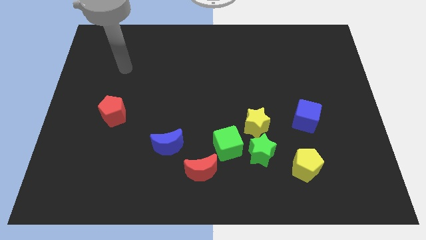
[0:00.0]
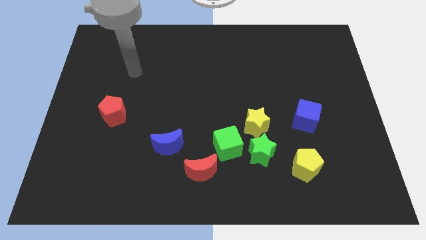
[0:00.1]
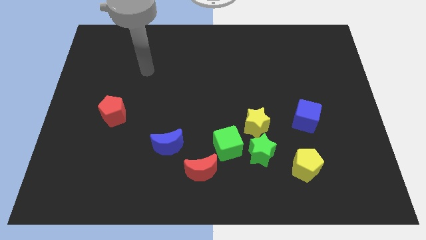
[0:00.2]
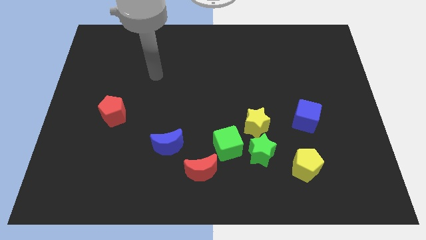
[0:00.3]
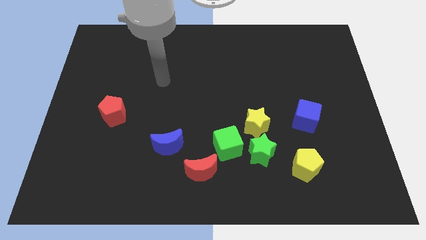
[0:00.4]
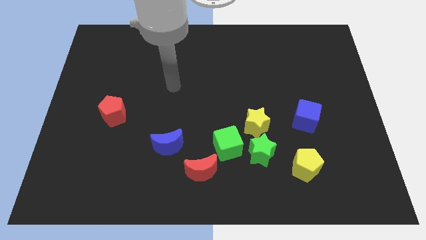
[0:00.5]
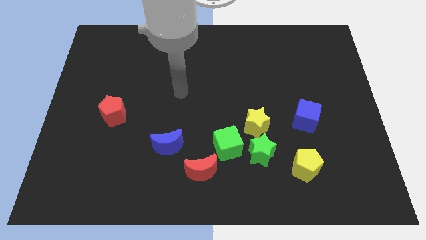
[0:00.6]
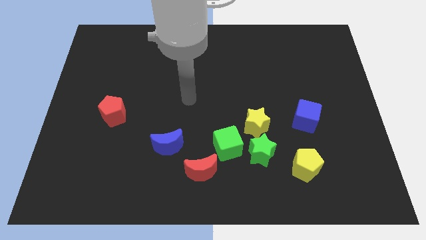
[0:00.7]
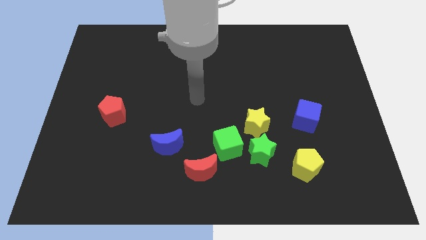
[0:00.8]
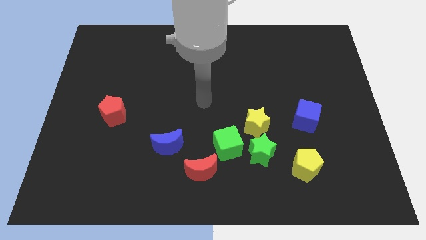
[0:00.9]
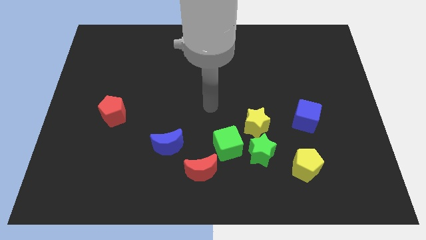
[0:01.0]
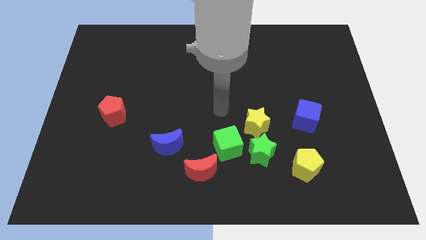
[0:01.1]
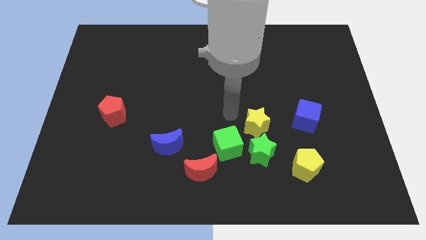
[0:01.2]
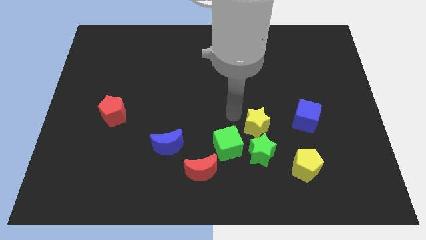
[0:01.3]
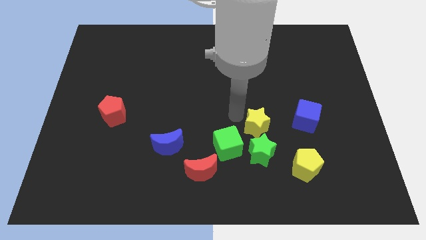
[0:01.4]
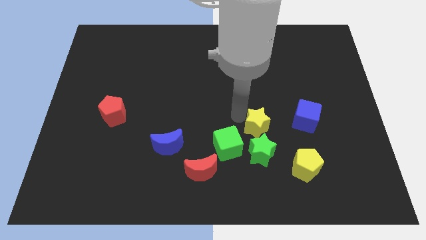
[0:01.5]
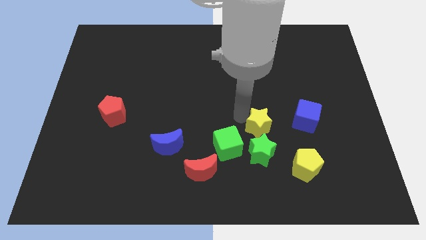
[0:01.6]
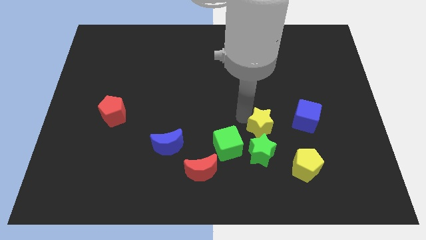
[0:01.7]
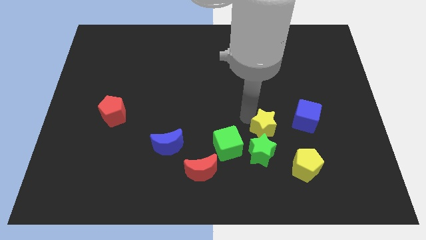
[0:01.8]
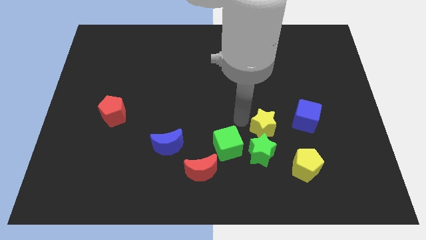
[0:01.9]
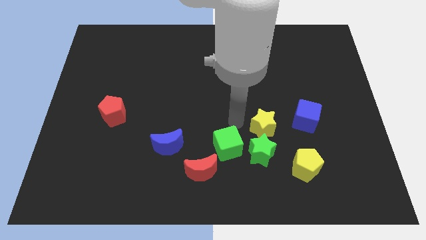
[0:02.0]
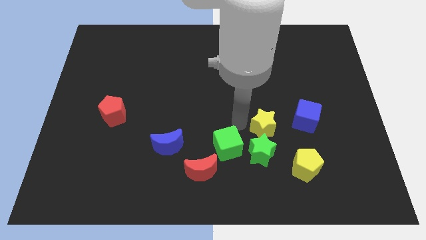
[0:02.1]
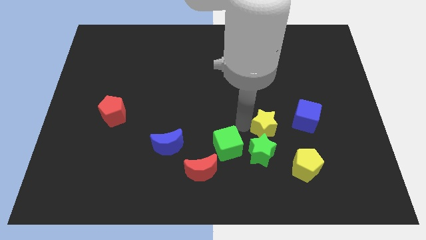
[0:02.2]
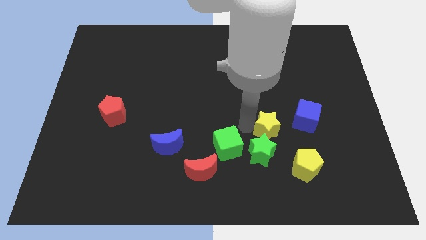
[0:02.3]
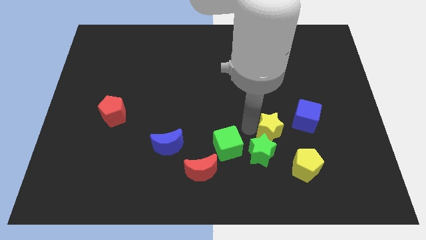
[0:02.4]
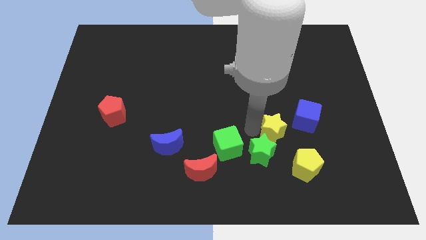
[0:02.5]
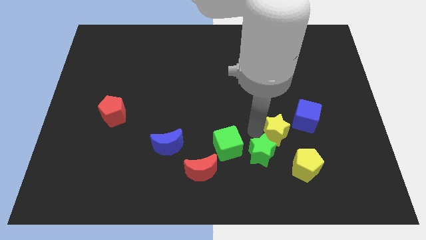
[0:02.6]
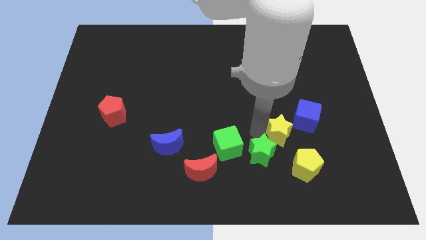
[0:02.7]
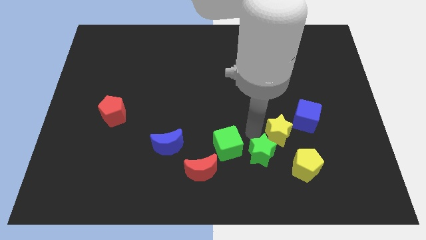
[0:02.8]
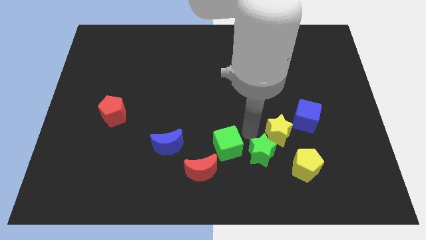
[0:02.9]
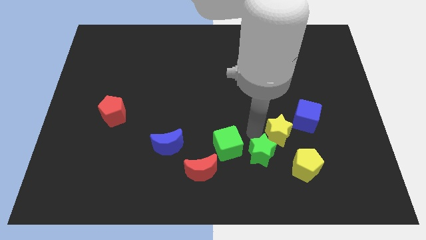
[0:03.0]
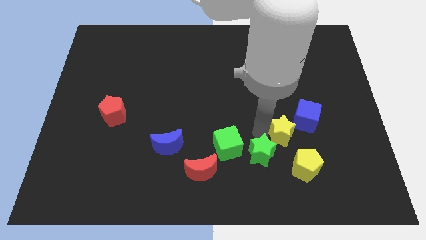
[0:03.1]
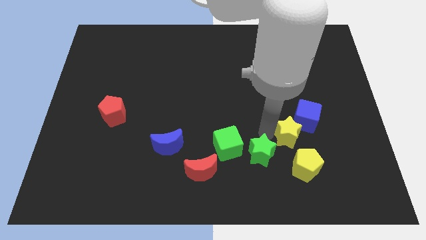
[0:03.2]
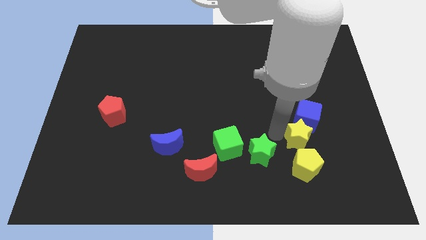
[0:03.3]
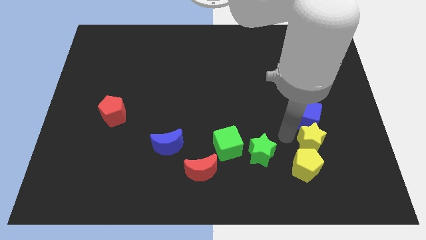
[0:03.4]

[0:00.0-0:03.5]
move the yellow star diagonally down and to the right of the blue cube

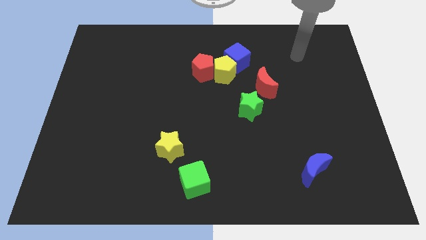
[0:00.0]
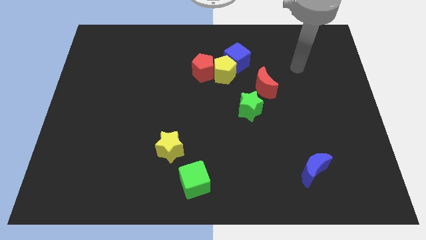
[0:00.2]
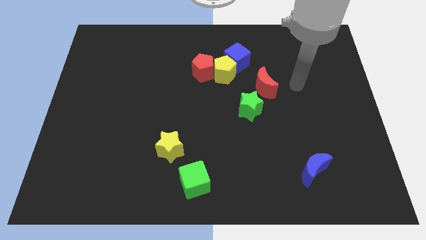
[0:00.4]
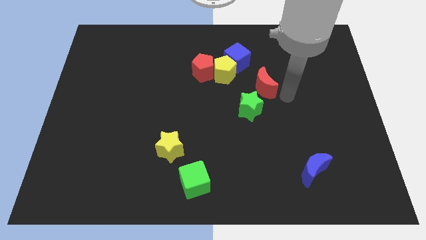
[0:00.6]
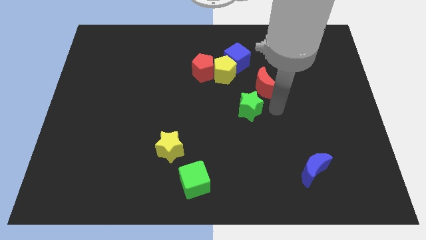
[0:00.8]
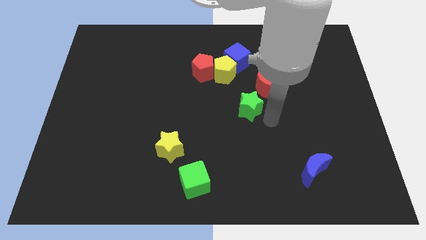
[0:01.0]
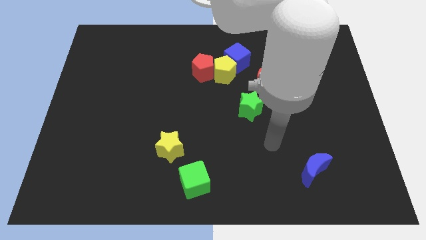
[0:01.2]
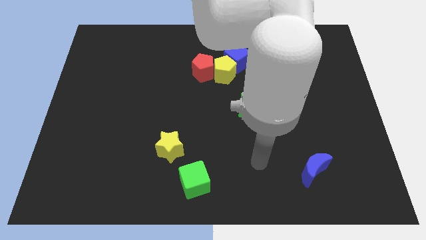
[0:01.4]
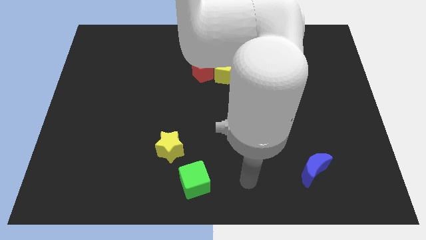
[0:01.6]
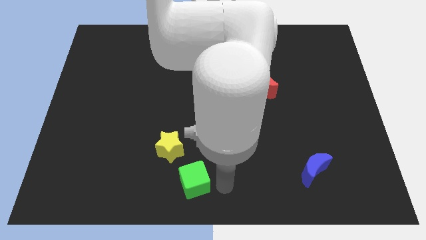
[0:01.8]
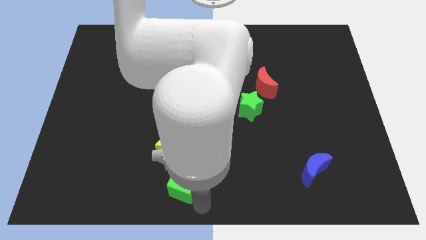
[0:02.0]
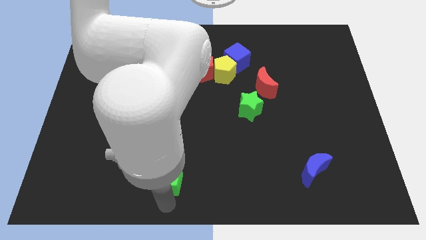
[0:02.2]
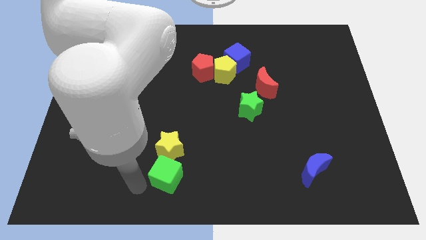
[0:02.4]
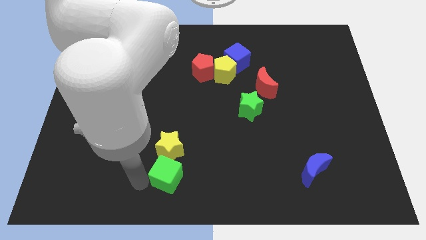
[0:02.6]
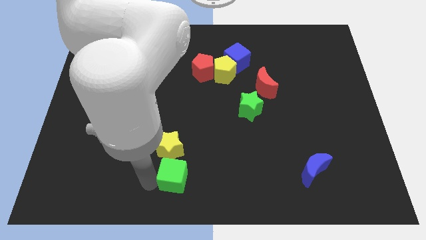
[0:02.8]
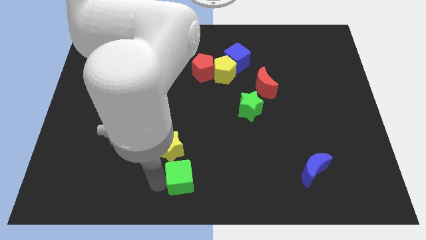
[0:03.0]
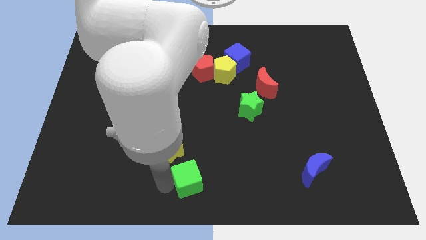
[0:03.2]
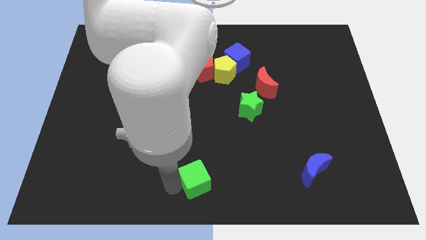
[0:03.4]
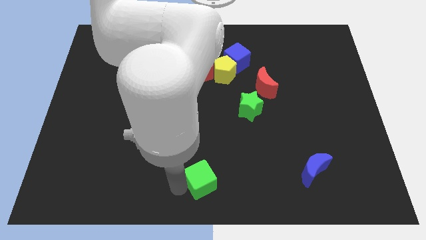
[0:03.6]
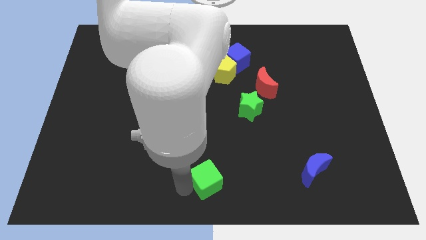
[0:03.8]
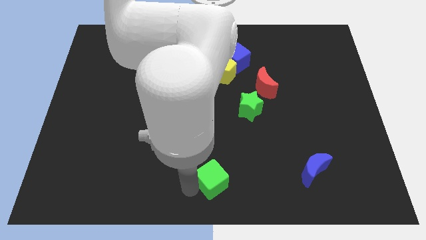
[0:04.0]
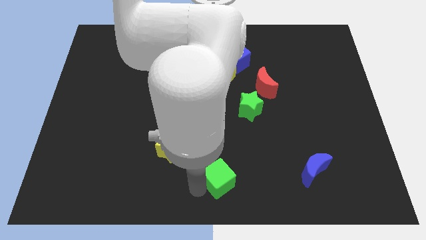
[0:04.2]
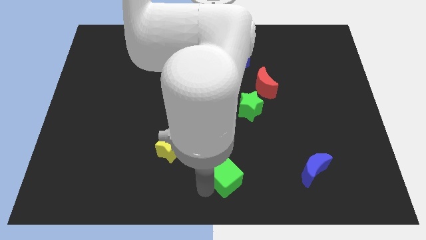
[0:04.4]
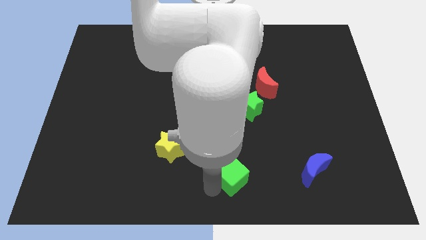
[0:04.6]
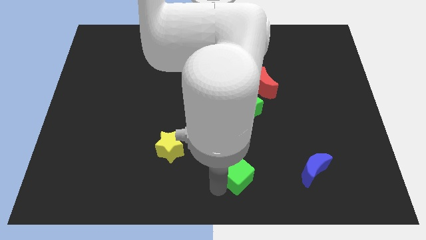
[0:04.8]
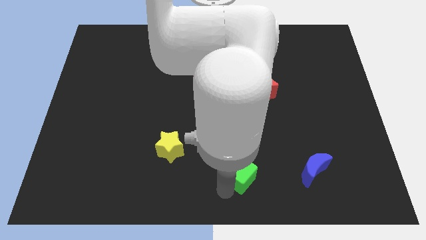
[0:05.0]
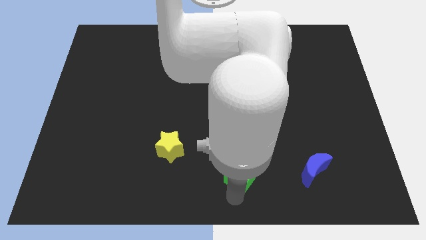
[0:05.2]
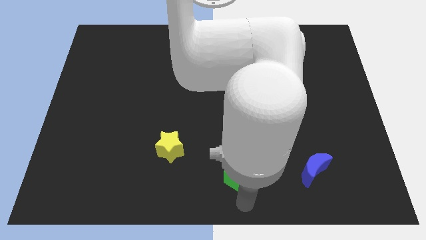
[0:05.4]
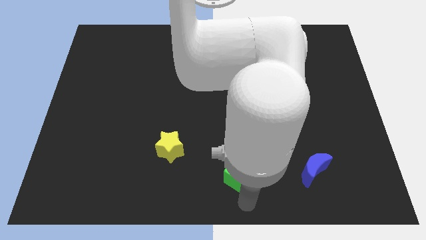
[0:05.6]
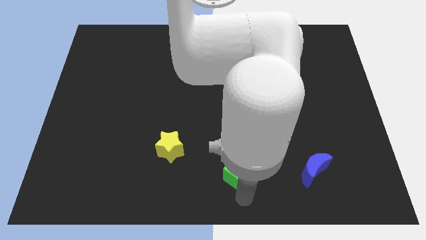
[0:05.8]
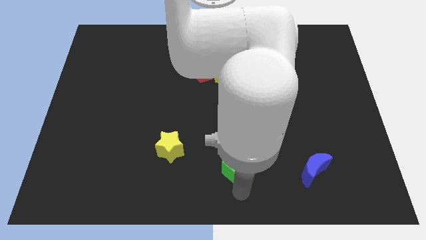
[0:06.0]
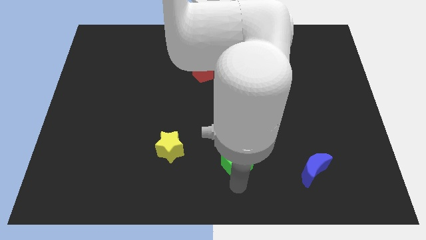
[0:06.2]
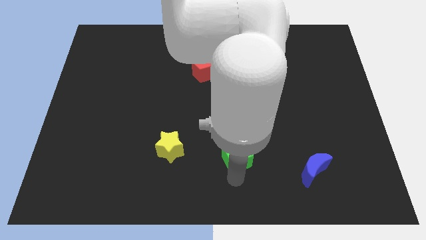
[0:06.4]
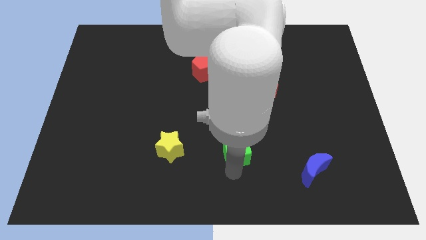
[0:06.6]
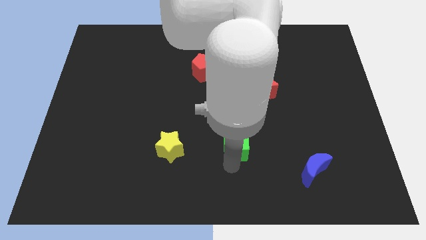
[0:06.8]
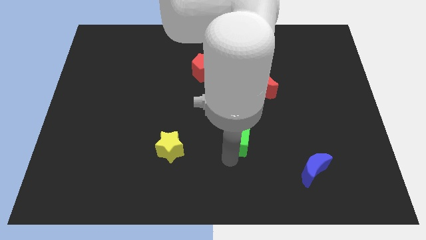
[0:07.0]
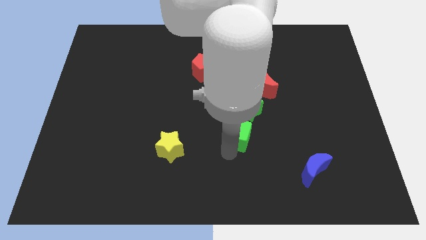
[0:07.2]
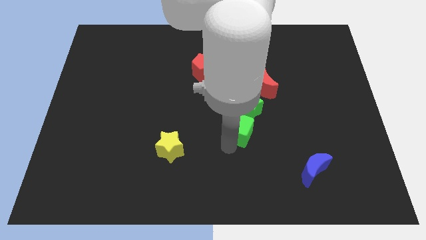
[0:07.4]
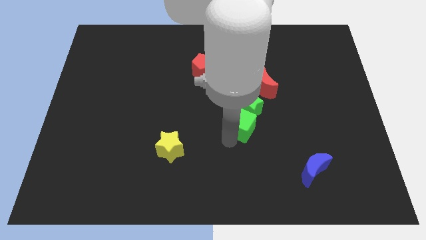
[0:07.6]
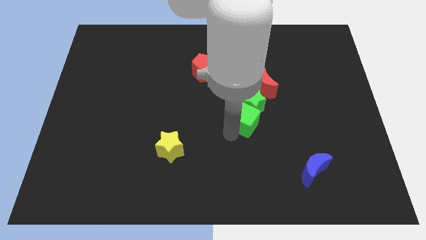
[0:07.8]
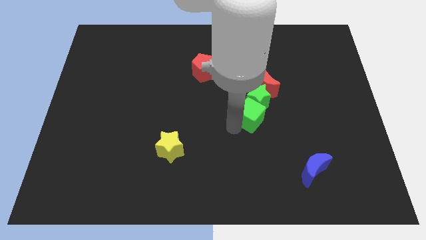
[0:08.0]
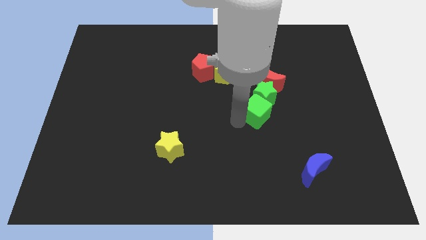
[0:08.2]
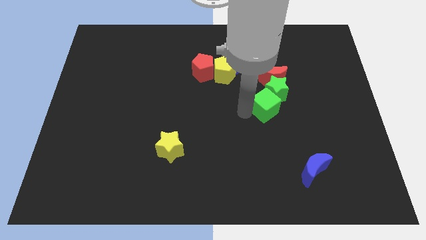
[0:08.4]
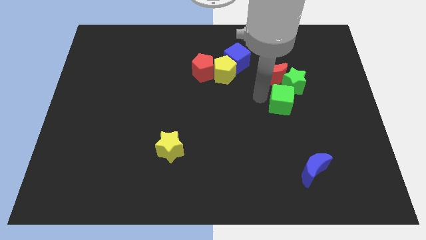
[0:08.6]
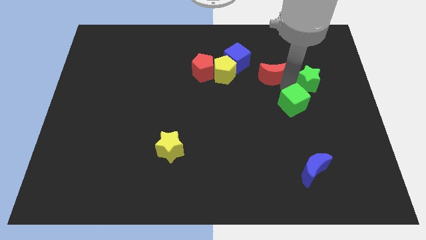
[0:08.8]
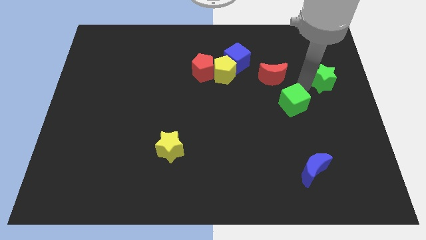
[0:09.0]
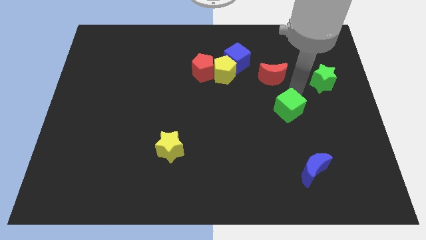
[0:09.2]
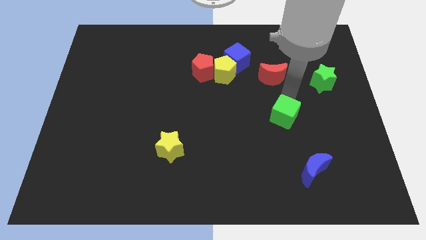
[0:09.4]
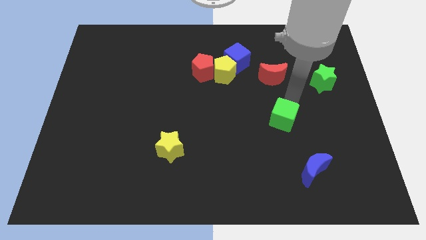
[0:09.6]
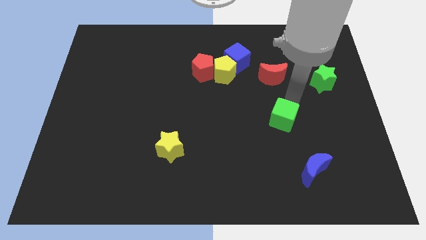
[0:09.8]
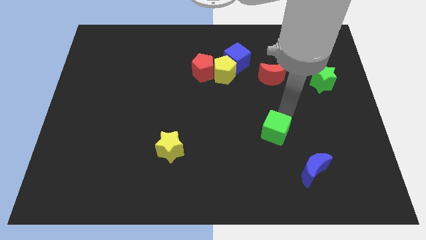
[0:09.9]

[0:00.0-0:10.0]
push the green cube diagonally up and to the left of the blue moon
